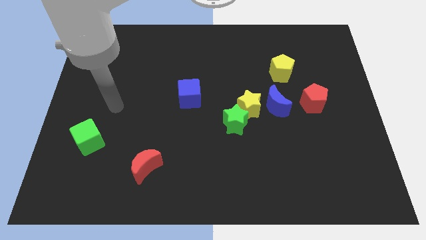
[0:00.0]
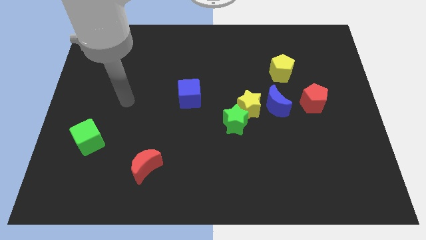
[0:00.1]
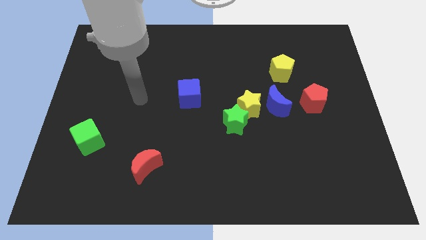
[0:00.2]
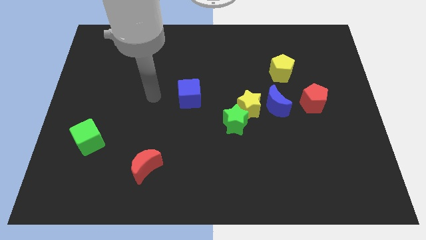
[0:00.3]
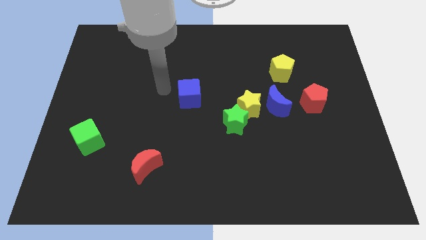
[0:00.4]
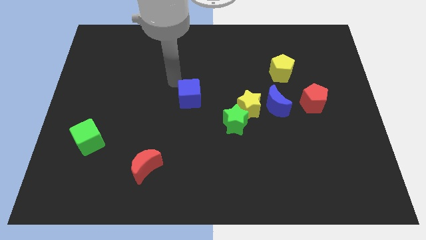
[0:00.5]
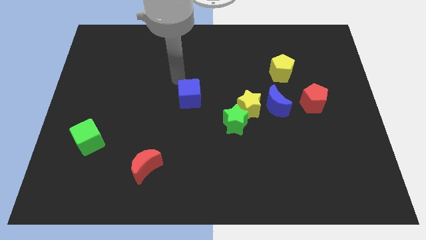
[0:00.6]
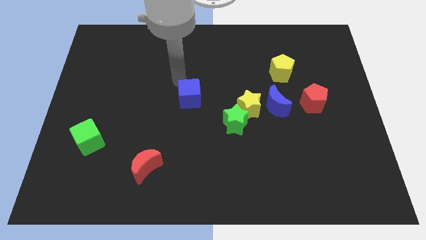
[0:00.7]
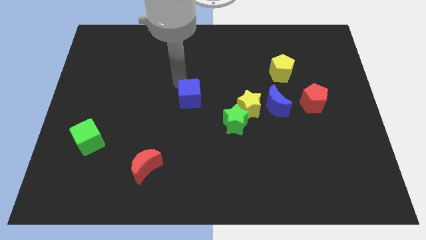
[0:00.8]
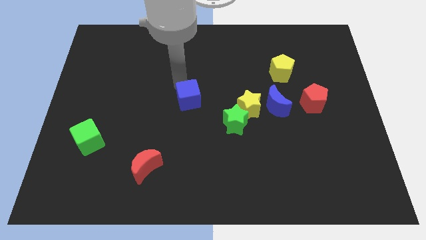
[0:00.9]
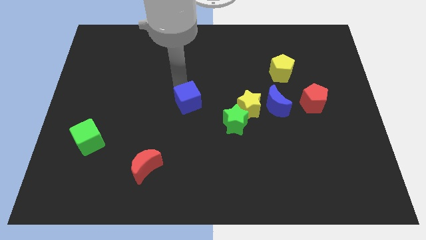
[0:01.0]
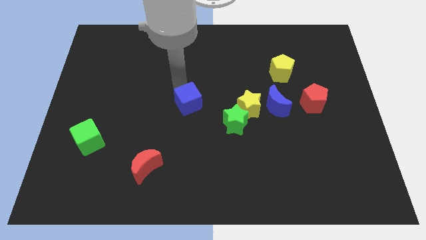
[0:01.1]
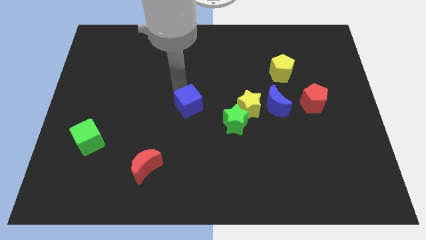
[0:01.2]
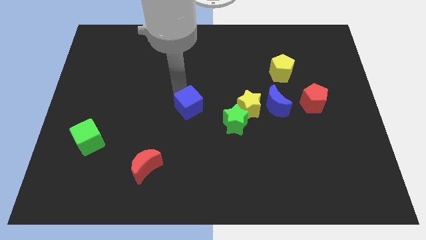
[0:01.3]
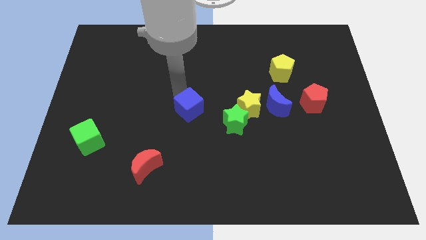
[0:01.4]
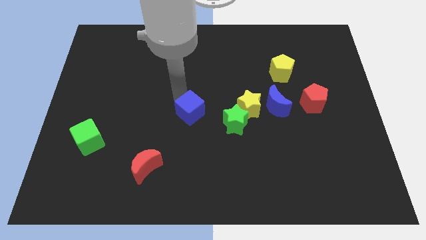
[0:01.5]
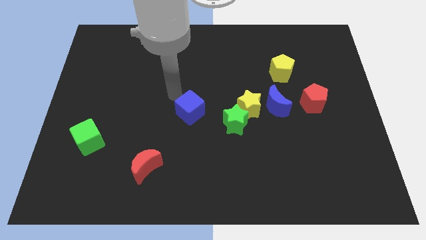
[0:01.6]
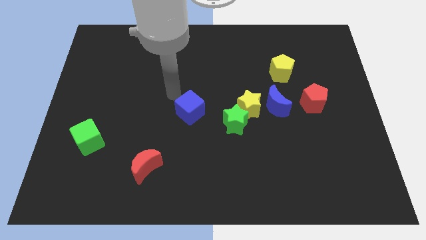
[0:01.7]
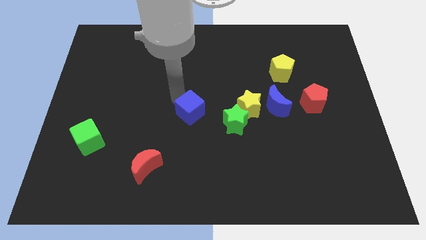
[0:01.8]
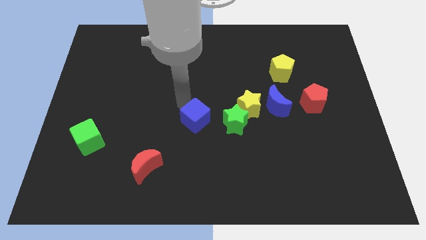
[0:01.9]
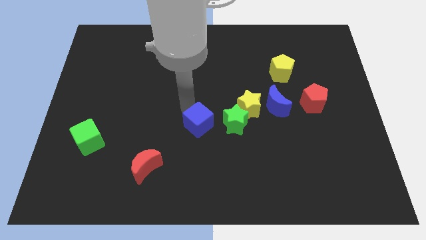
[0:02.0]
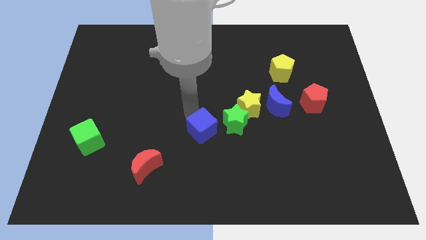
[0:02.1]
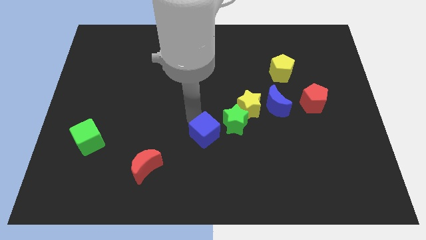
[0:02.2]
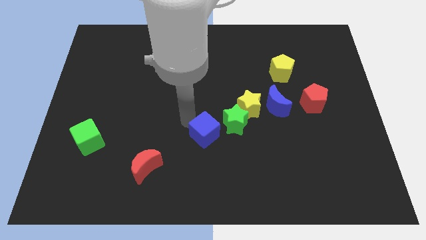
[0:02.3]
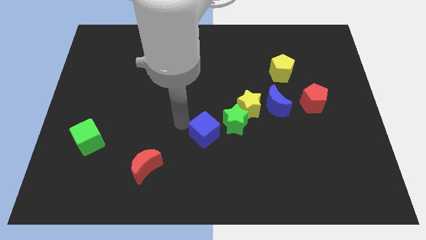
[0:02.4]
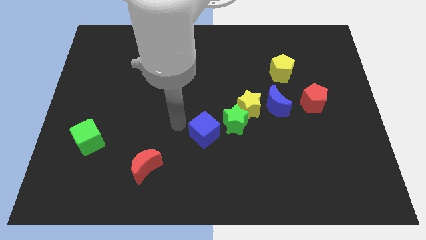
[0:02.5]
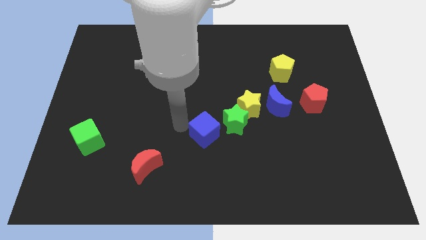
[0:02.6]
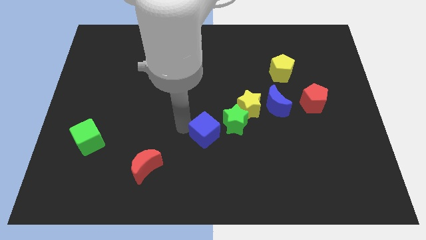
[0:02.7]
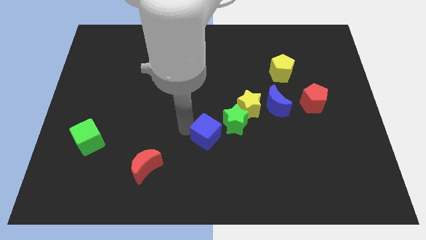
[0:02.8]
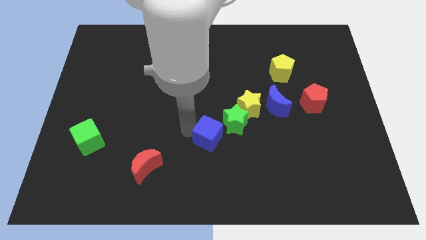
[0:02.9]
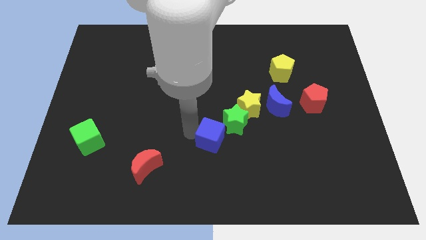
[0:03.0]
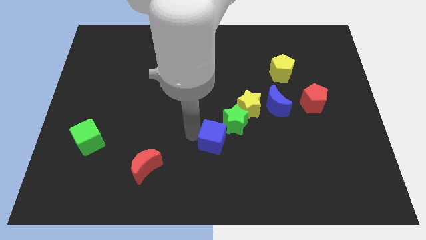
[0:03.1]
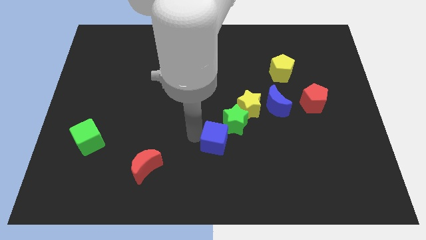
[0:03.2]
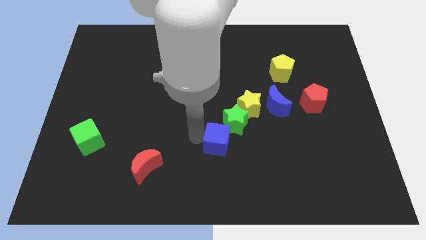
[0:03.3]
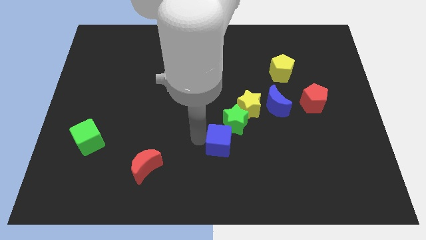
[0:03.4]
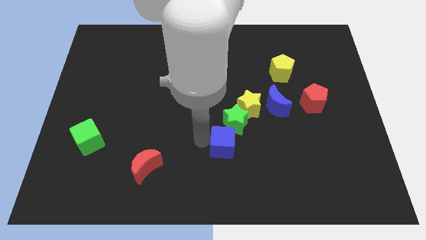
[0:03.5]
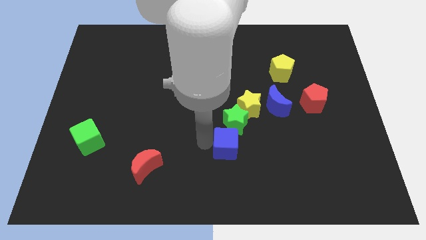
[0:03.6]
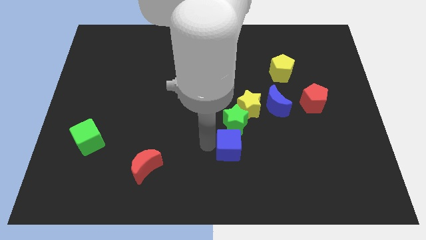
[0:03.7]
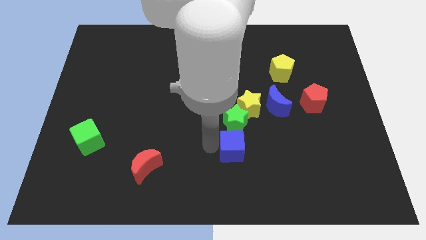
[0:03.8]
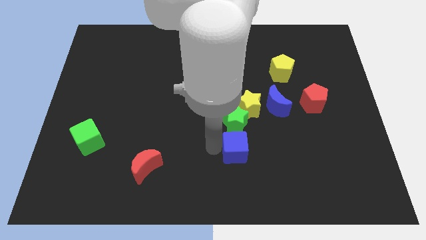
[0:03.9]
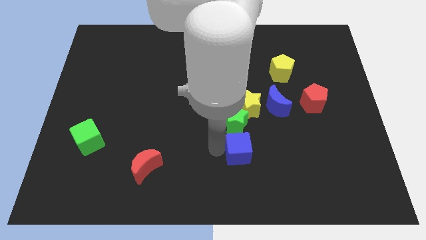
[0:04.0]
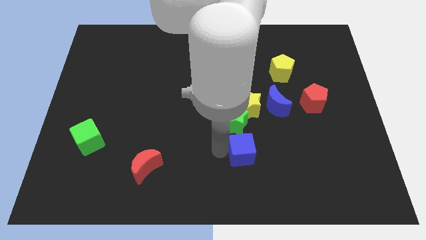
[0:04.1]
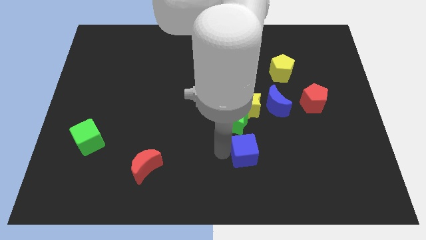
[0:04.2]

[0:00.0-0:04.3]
slide the blue cube down and then right

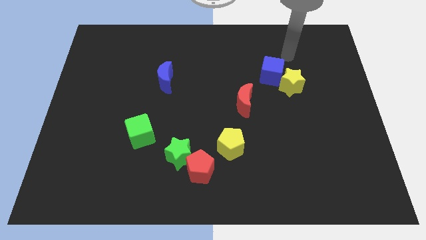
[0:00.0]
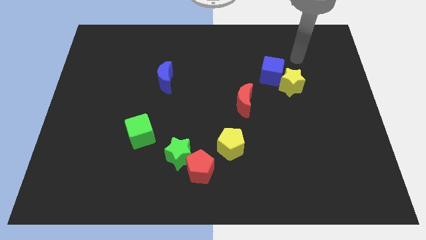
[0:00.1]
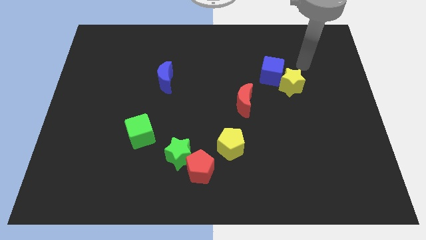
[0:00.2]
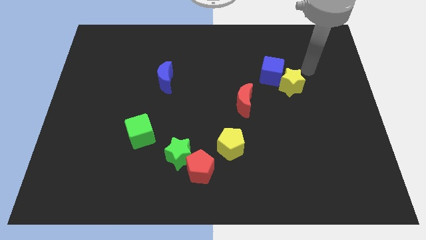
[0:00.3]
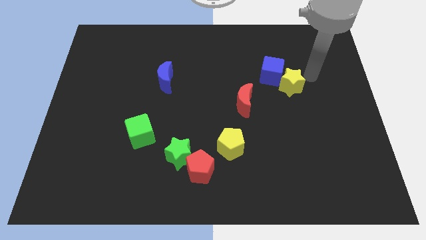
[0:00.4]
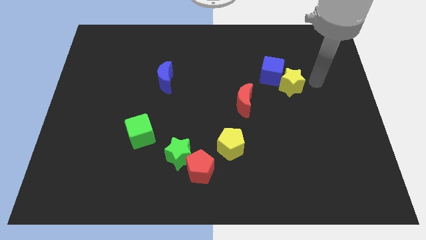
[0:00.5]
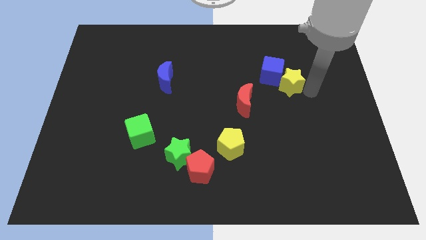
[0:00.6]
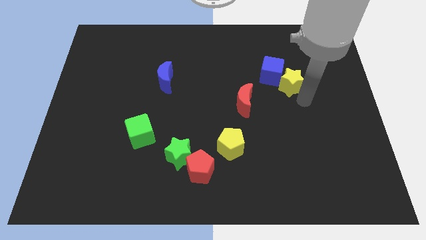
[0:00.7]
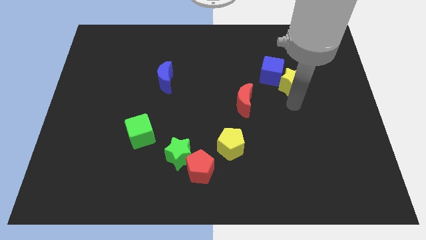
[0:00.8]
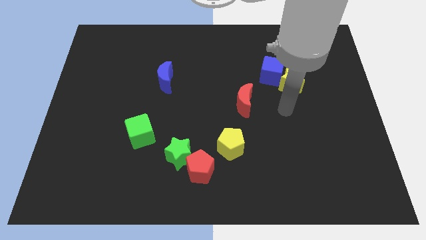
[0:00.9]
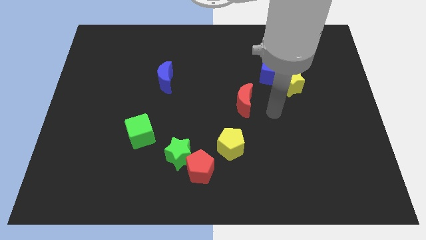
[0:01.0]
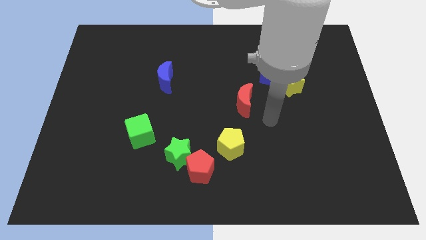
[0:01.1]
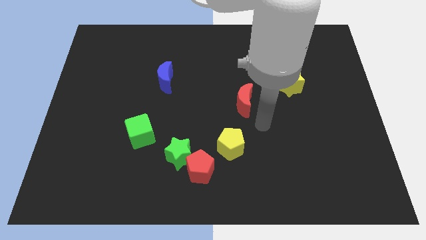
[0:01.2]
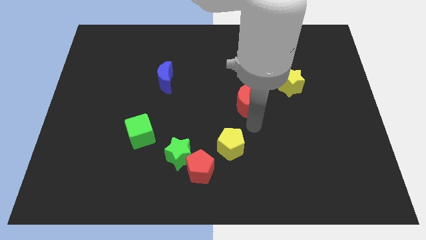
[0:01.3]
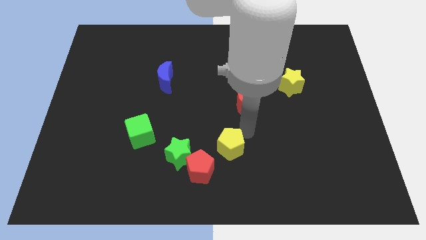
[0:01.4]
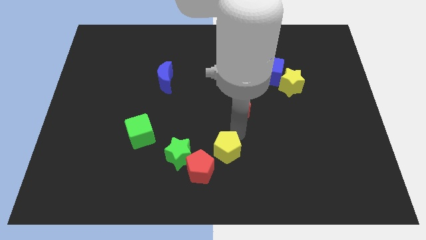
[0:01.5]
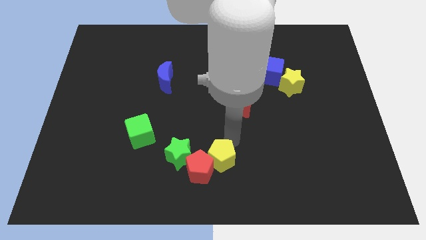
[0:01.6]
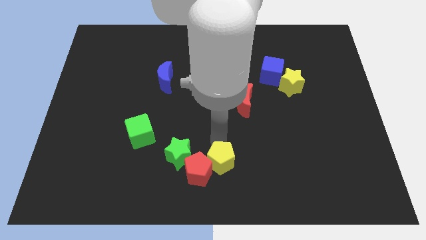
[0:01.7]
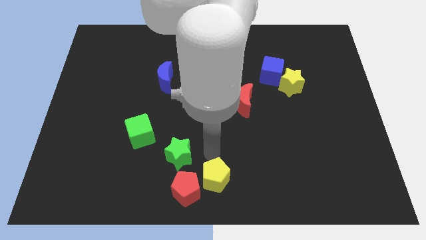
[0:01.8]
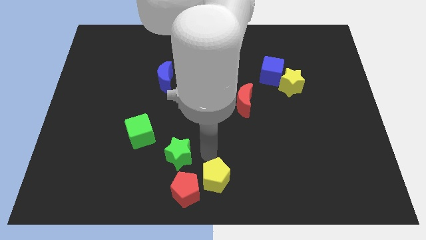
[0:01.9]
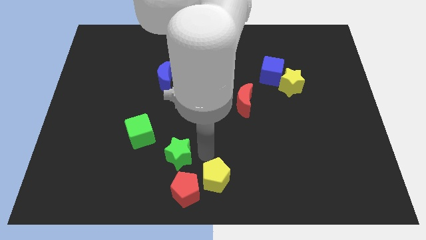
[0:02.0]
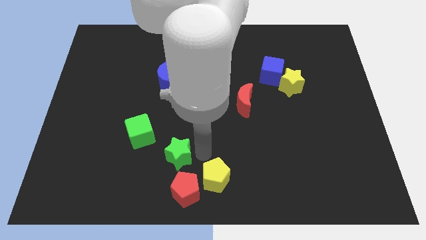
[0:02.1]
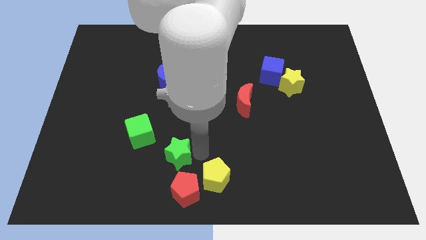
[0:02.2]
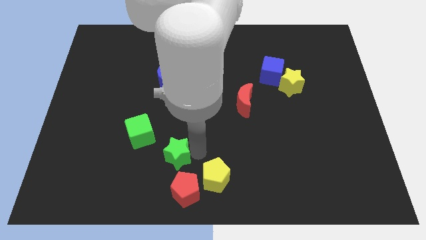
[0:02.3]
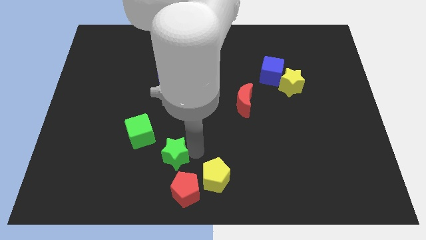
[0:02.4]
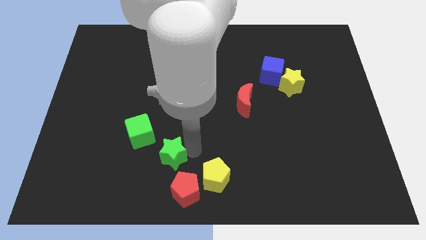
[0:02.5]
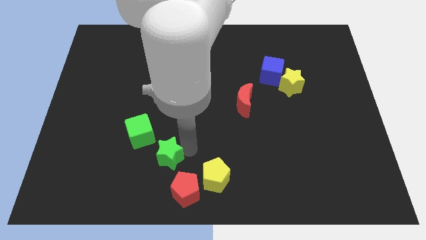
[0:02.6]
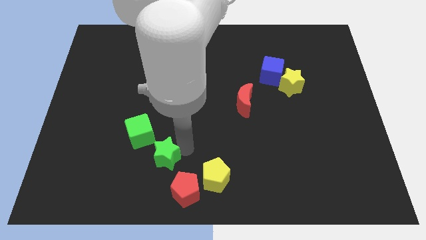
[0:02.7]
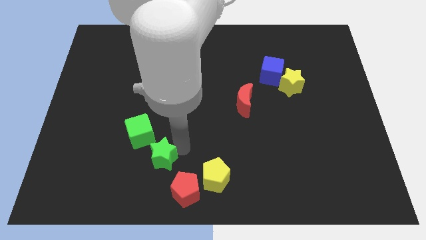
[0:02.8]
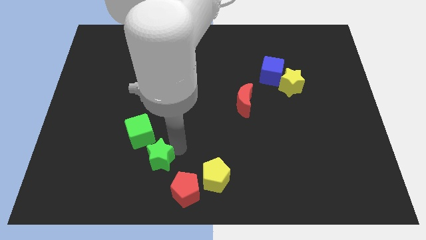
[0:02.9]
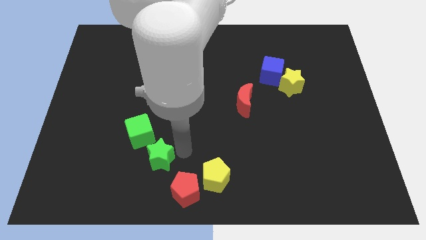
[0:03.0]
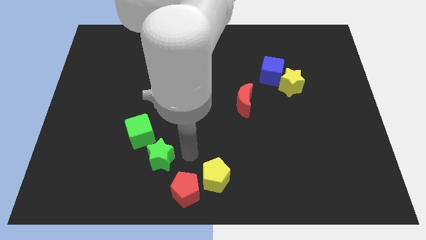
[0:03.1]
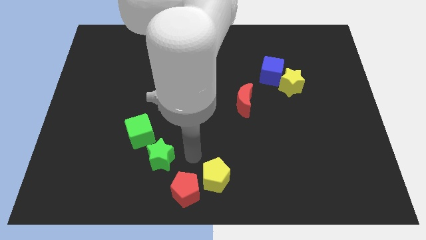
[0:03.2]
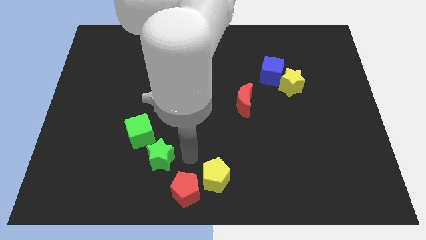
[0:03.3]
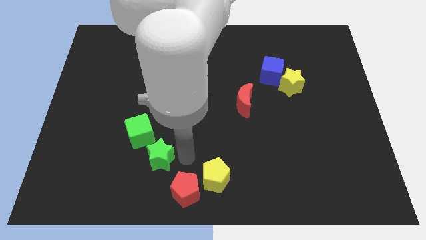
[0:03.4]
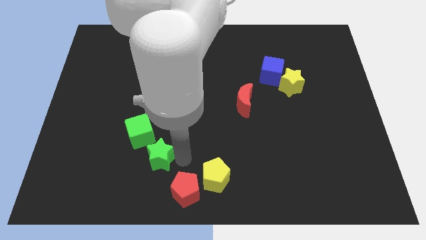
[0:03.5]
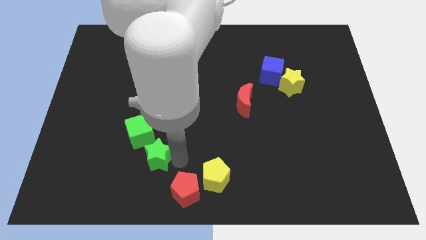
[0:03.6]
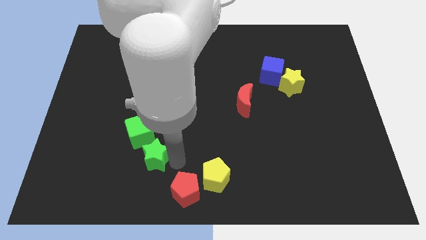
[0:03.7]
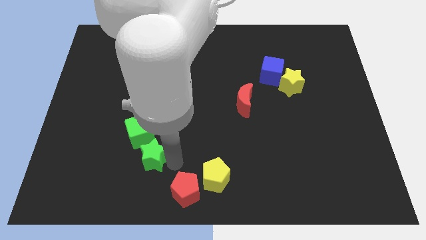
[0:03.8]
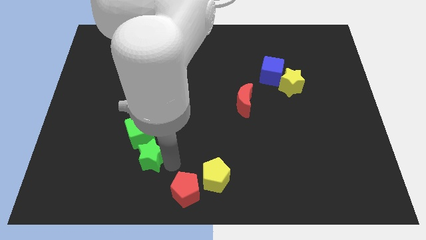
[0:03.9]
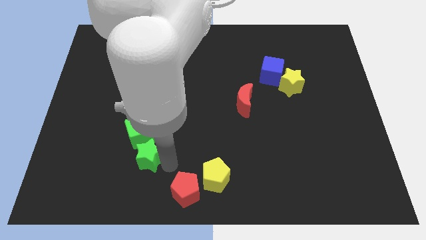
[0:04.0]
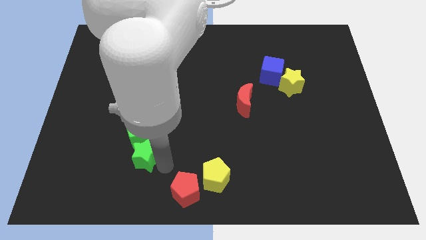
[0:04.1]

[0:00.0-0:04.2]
slightly slide the green star left

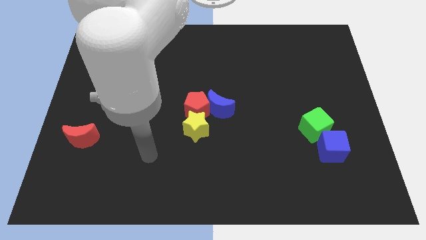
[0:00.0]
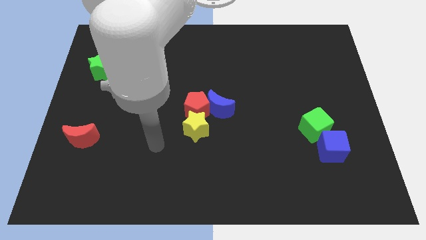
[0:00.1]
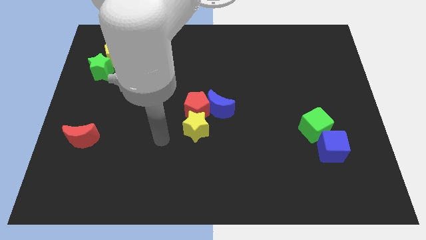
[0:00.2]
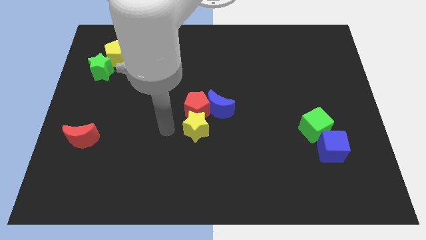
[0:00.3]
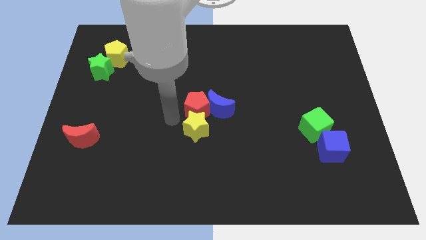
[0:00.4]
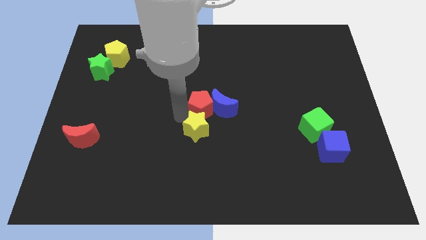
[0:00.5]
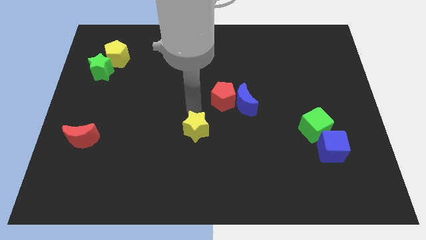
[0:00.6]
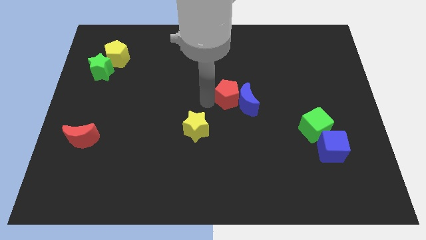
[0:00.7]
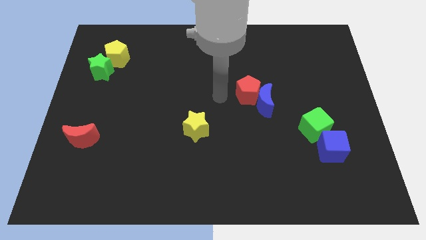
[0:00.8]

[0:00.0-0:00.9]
move the blue moon slightly right
